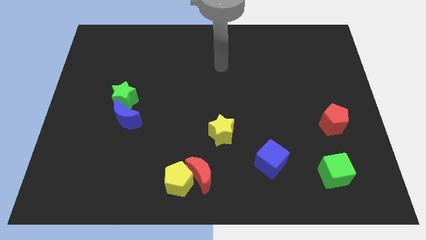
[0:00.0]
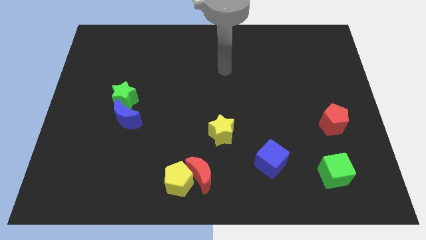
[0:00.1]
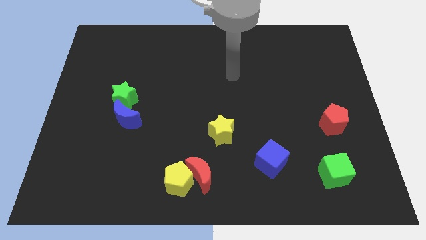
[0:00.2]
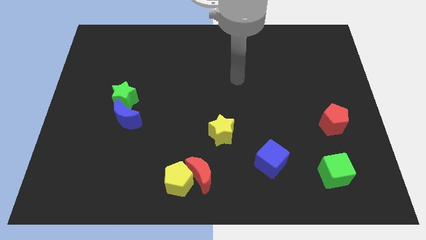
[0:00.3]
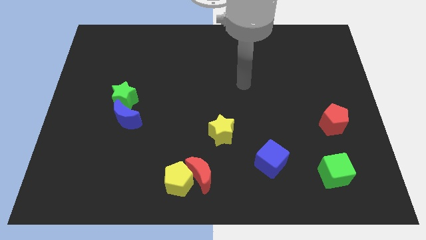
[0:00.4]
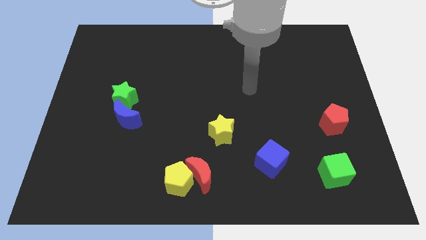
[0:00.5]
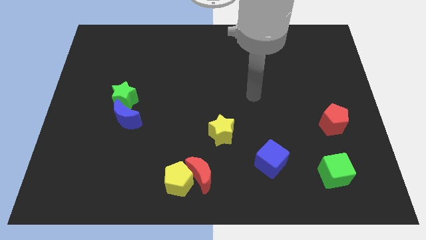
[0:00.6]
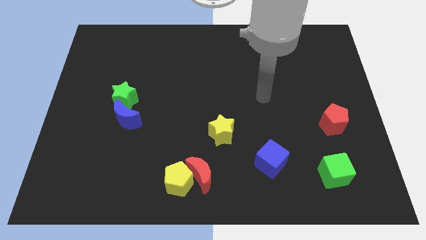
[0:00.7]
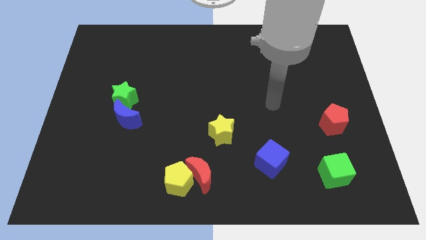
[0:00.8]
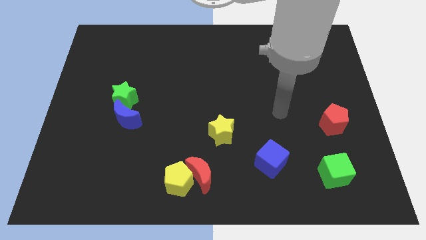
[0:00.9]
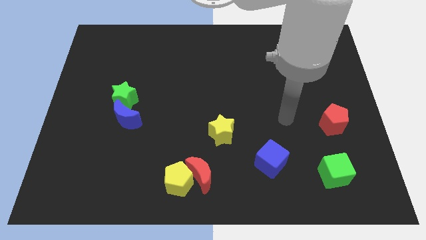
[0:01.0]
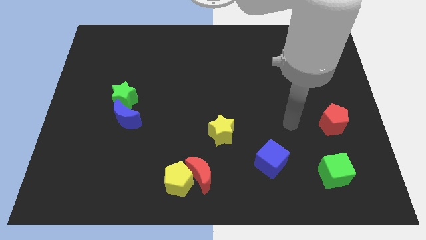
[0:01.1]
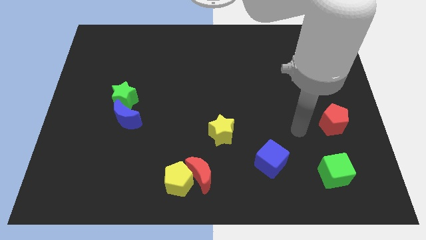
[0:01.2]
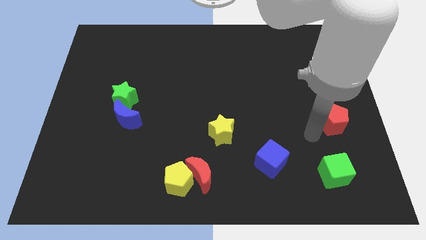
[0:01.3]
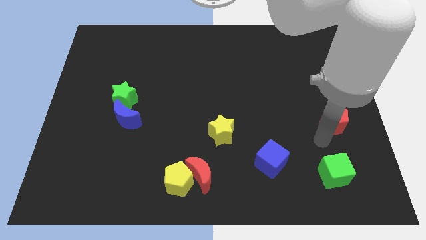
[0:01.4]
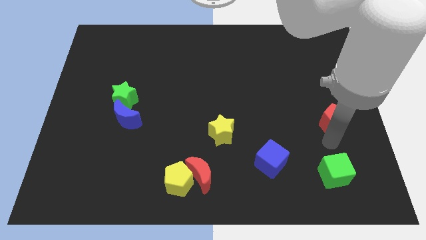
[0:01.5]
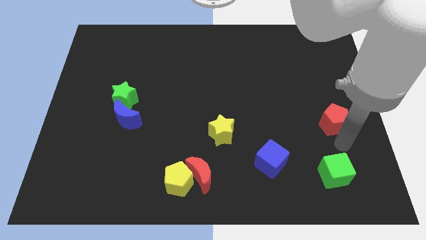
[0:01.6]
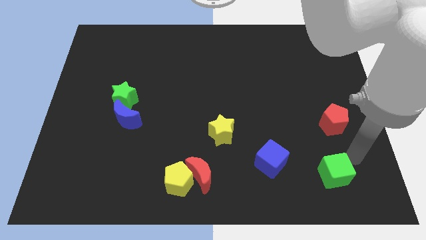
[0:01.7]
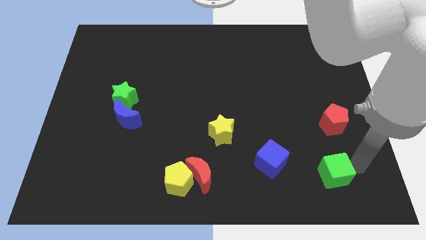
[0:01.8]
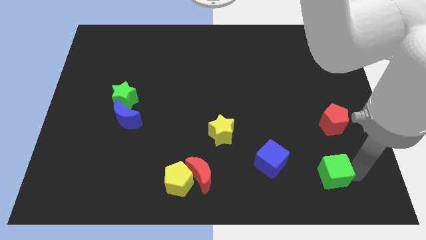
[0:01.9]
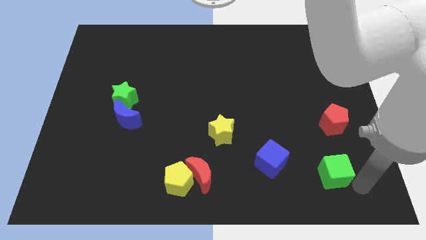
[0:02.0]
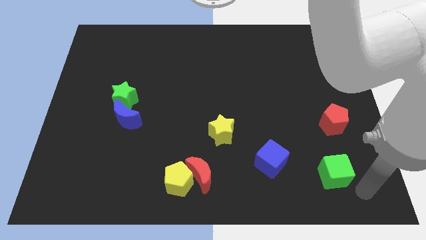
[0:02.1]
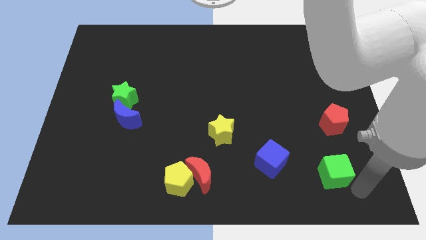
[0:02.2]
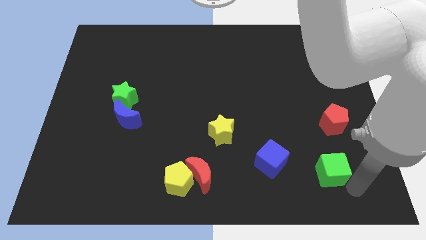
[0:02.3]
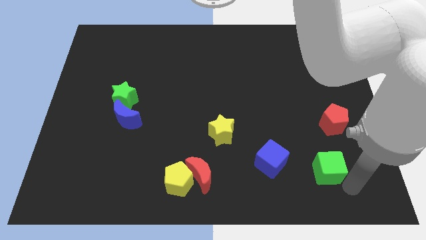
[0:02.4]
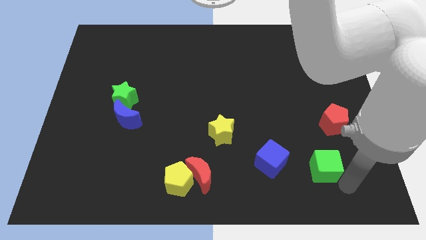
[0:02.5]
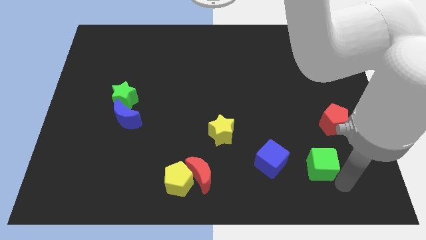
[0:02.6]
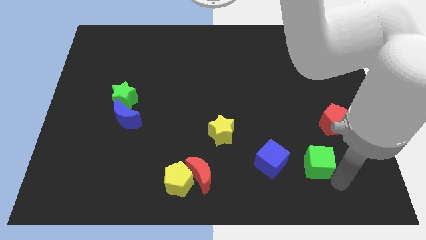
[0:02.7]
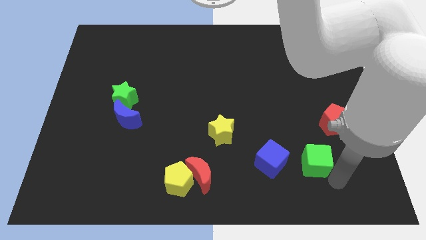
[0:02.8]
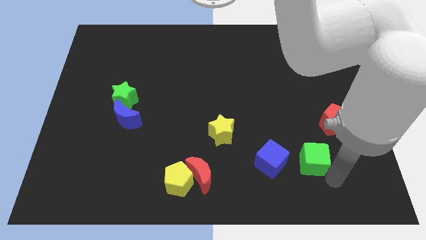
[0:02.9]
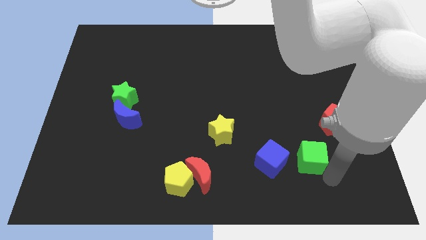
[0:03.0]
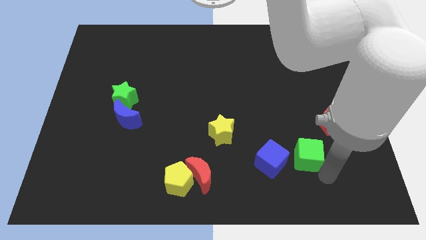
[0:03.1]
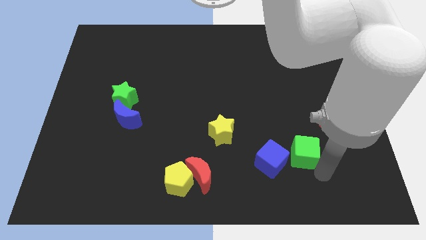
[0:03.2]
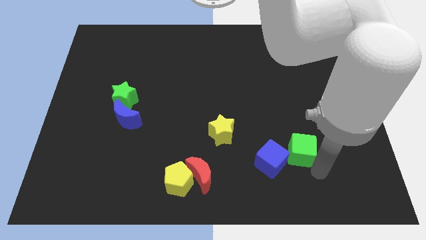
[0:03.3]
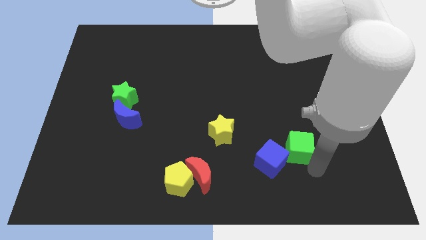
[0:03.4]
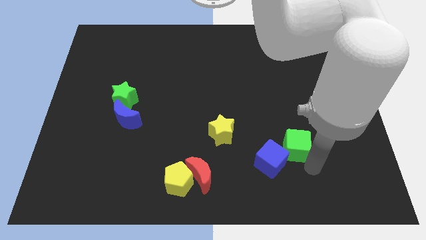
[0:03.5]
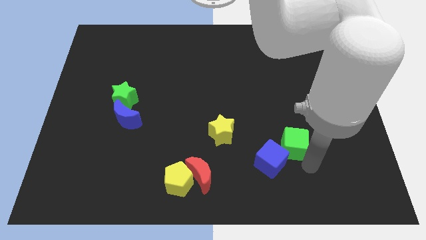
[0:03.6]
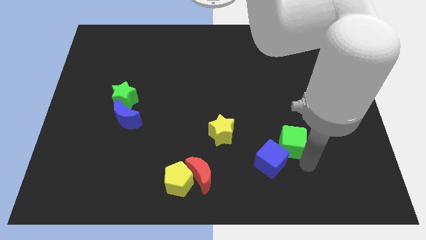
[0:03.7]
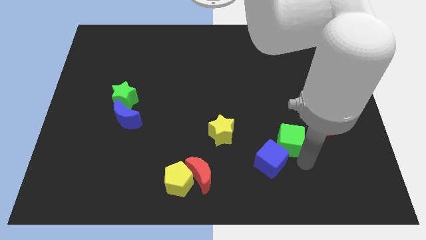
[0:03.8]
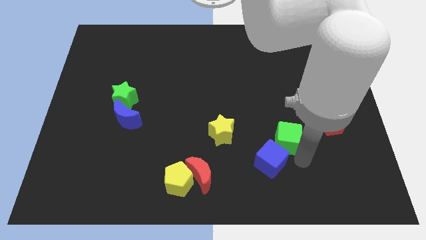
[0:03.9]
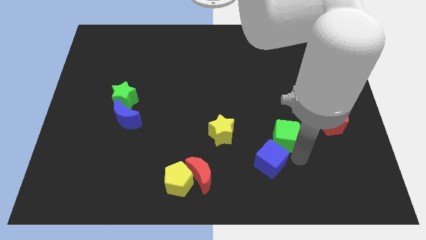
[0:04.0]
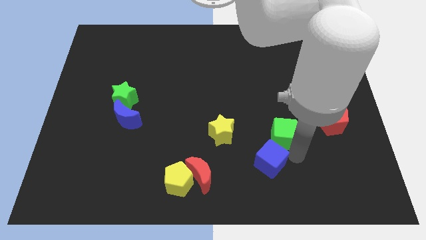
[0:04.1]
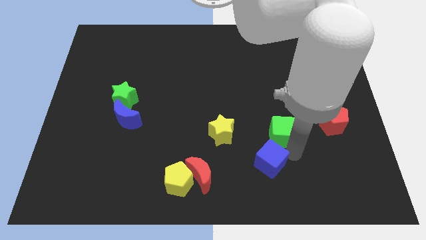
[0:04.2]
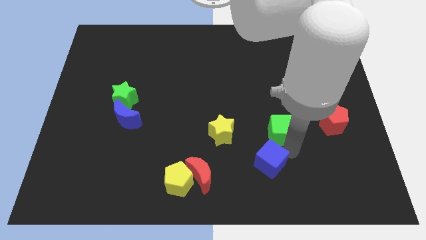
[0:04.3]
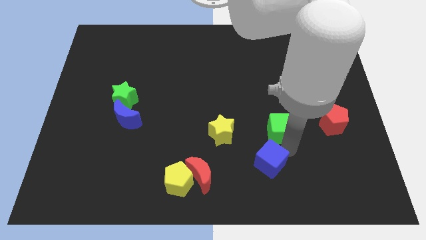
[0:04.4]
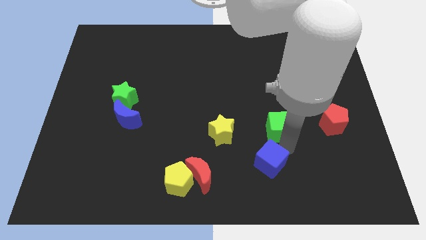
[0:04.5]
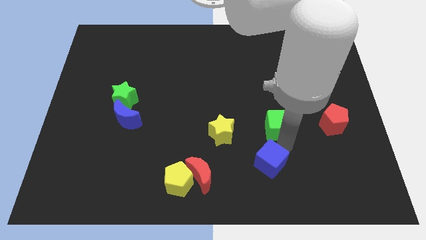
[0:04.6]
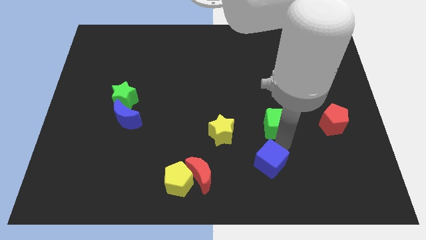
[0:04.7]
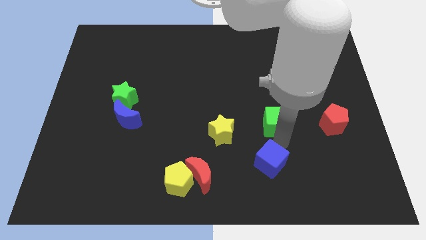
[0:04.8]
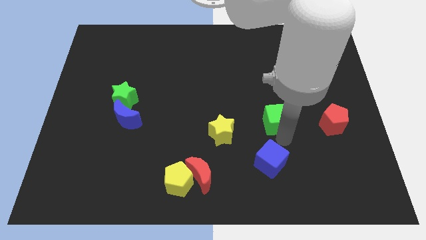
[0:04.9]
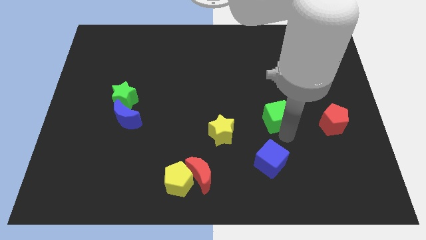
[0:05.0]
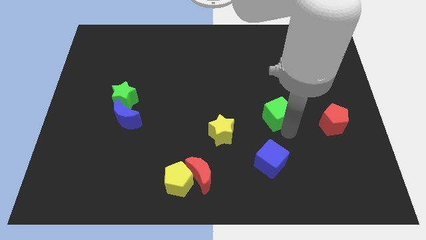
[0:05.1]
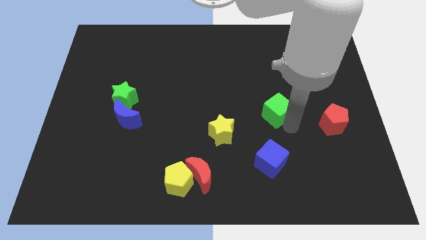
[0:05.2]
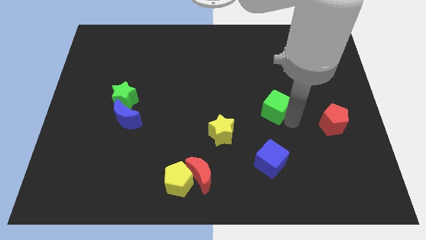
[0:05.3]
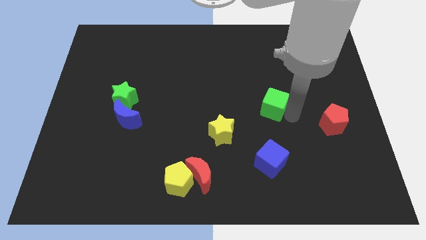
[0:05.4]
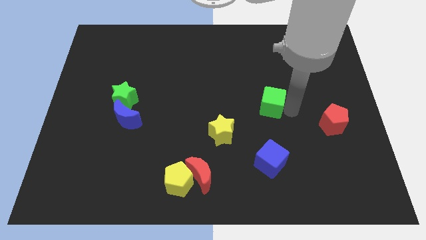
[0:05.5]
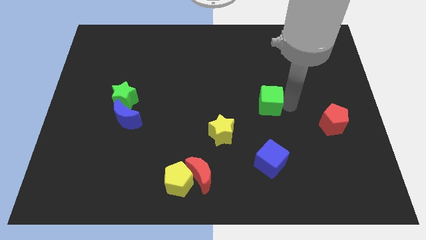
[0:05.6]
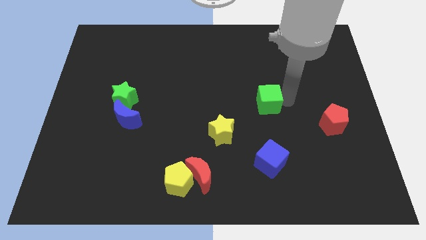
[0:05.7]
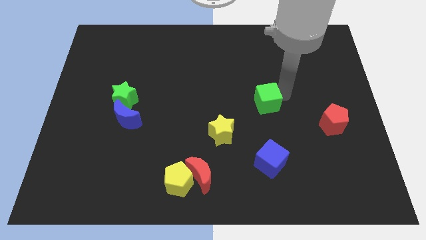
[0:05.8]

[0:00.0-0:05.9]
put the green cube to the middle

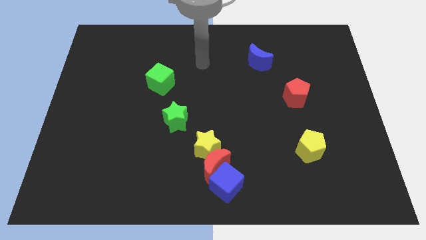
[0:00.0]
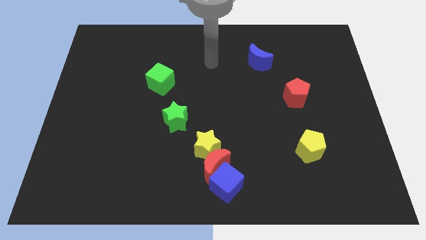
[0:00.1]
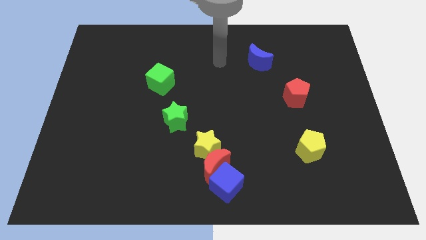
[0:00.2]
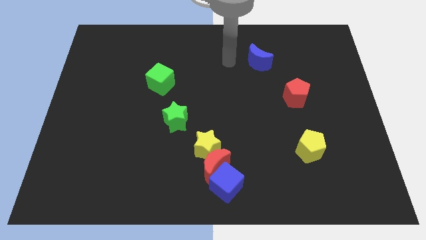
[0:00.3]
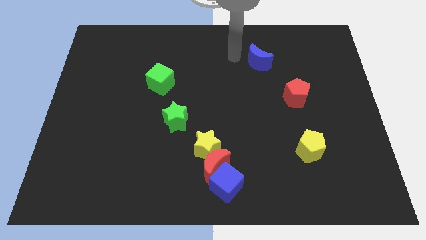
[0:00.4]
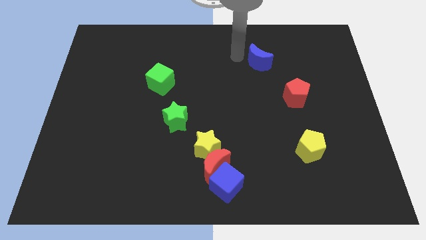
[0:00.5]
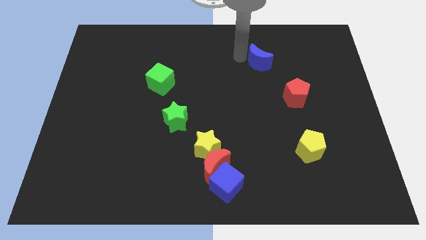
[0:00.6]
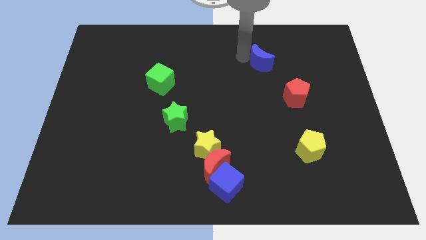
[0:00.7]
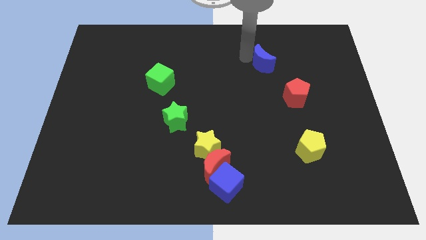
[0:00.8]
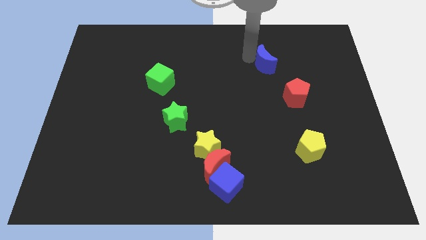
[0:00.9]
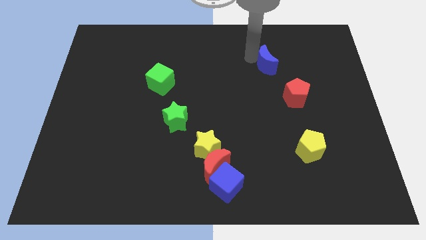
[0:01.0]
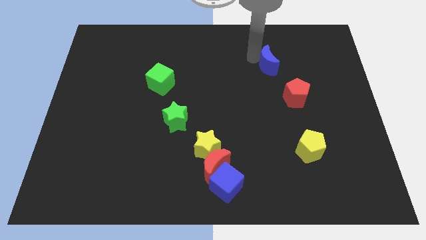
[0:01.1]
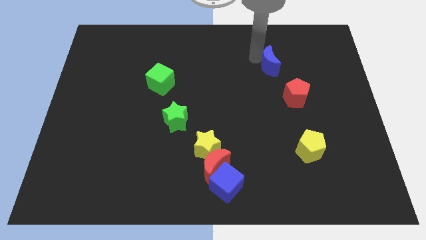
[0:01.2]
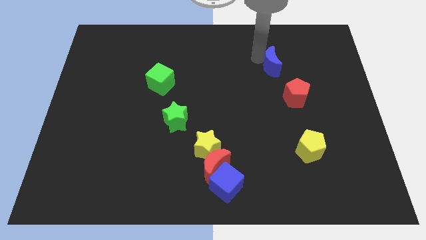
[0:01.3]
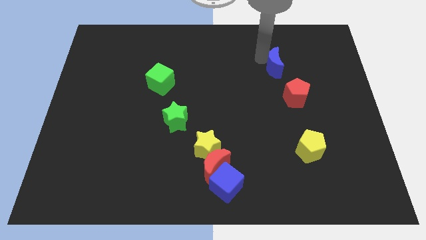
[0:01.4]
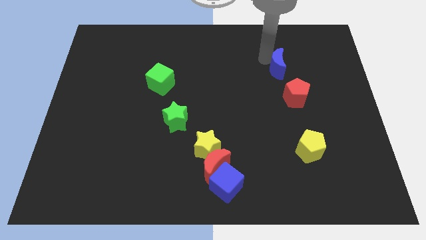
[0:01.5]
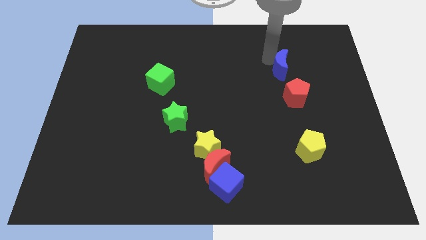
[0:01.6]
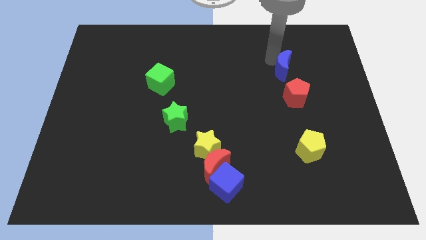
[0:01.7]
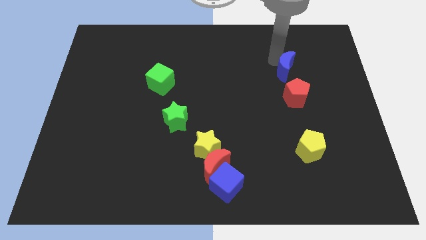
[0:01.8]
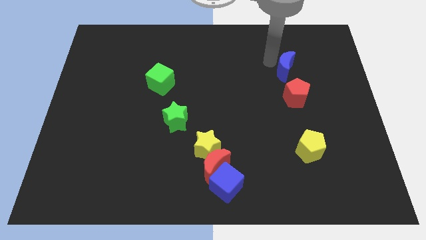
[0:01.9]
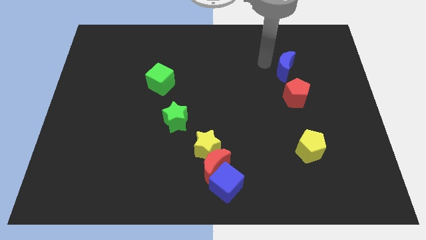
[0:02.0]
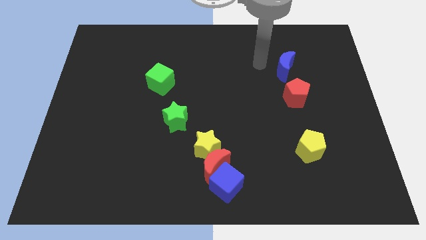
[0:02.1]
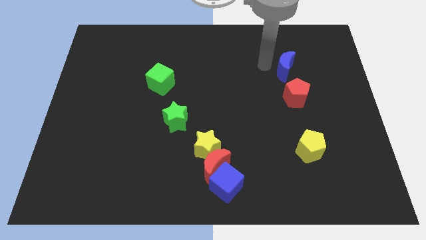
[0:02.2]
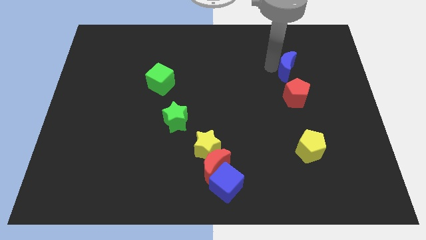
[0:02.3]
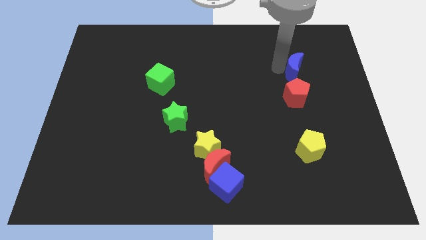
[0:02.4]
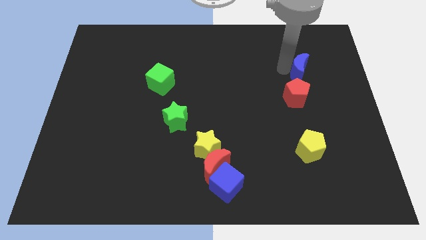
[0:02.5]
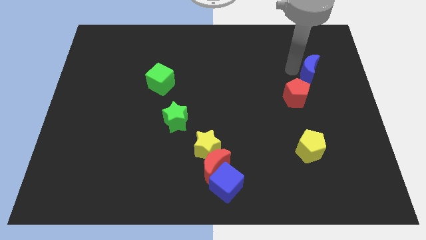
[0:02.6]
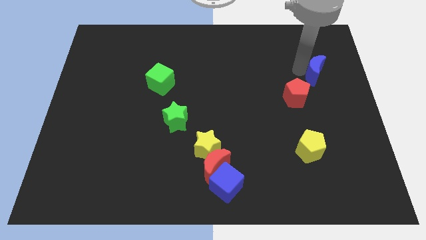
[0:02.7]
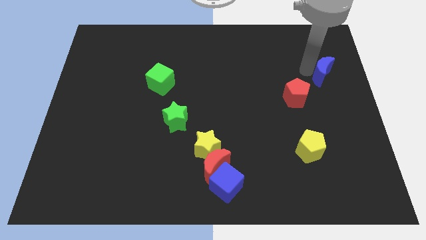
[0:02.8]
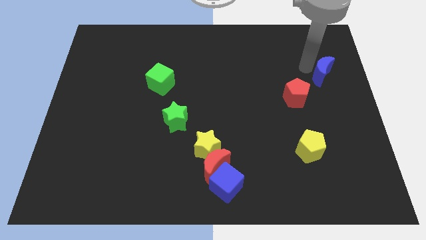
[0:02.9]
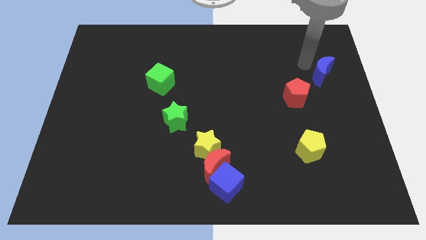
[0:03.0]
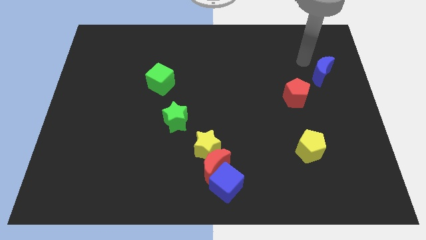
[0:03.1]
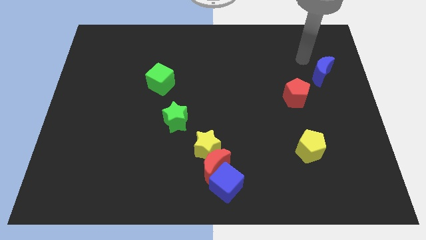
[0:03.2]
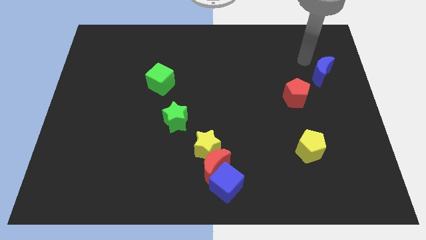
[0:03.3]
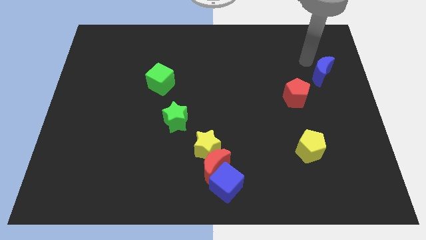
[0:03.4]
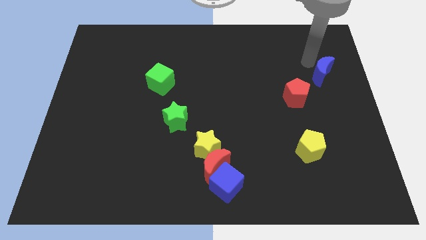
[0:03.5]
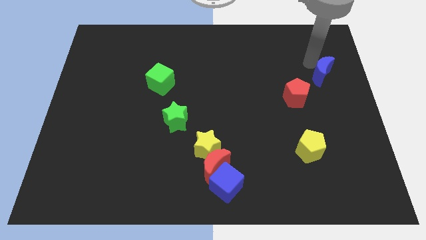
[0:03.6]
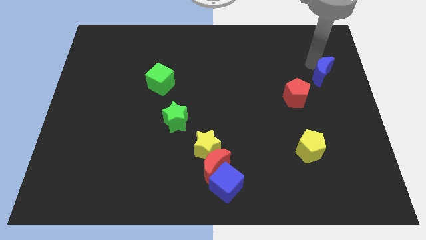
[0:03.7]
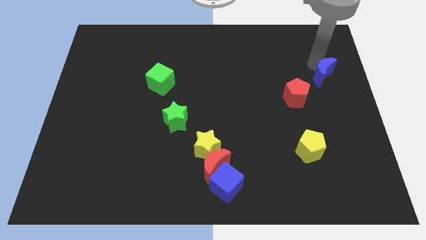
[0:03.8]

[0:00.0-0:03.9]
slide the blue moon to the right side of the board
